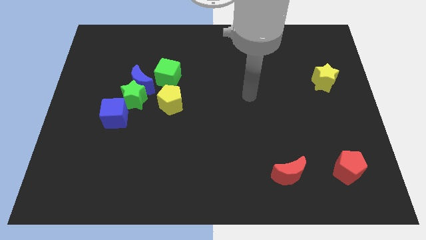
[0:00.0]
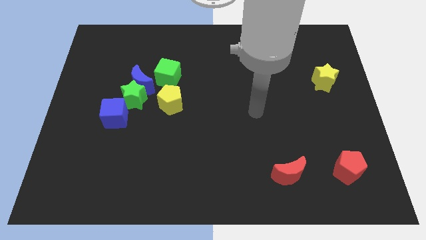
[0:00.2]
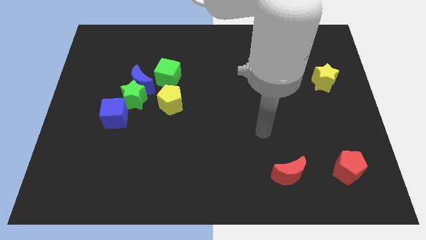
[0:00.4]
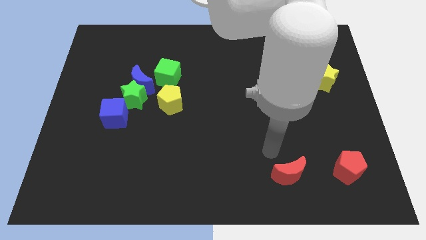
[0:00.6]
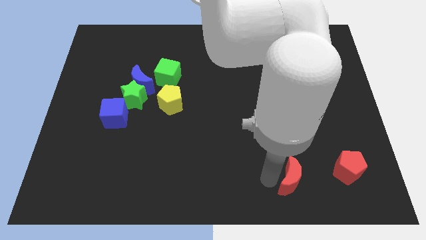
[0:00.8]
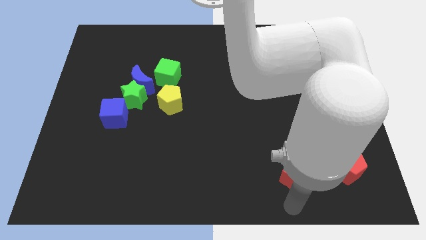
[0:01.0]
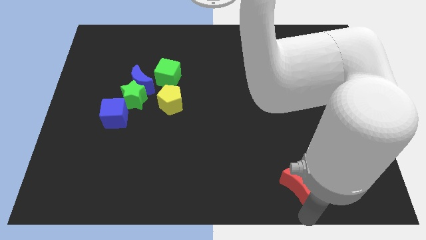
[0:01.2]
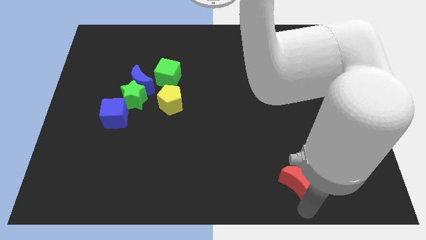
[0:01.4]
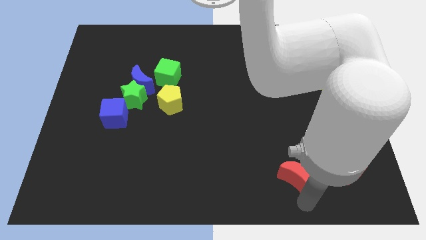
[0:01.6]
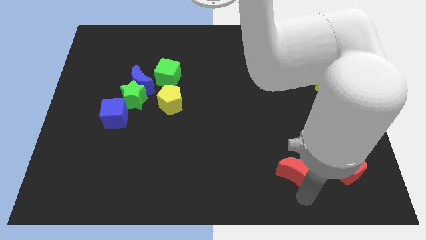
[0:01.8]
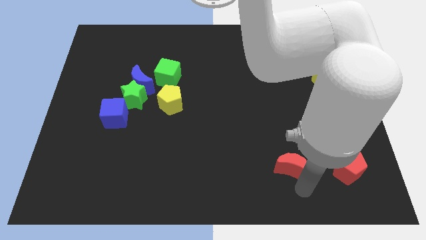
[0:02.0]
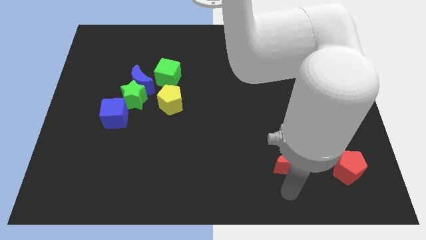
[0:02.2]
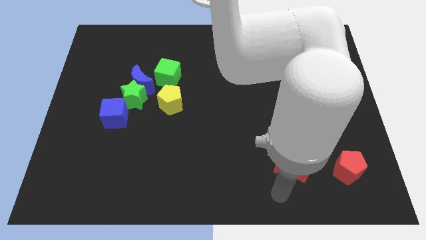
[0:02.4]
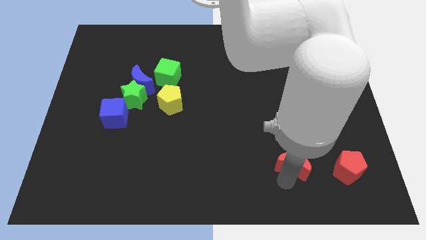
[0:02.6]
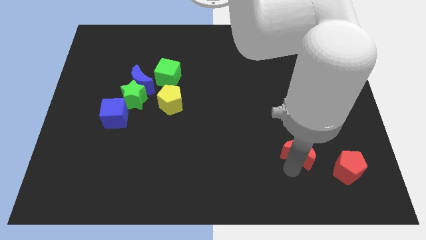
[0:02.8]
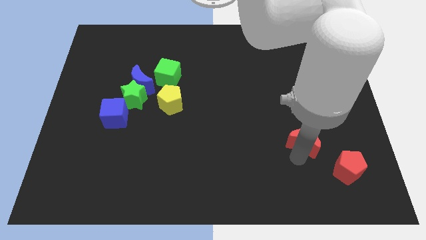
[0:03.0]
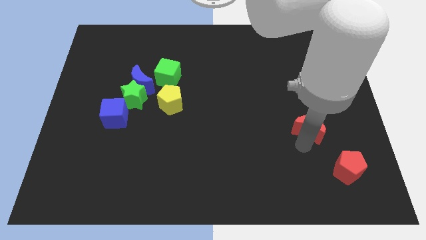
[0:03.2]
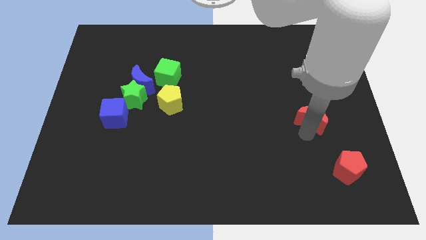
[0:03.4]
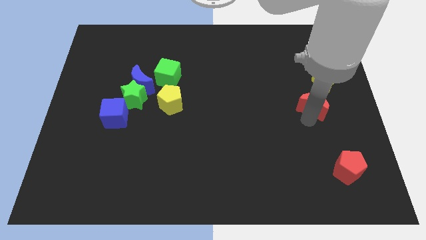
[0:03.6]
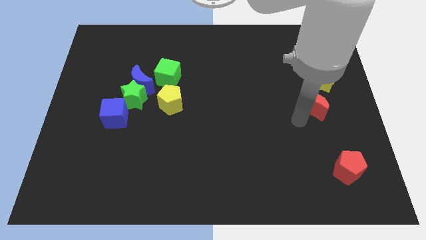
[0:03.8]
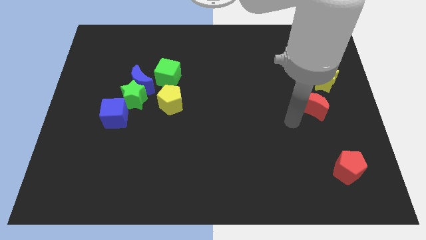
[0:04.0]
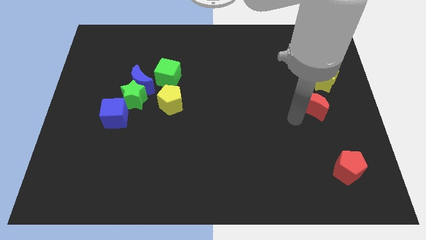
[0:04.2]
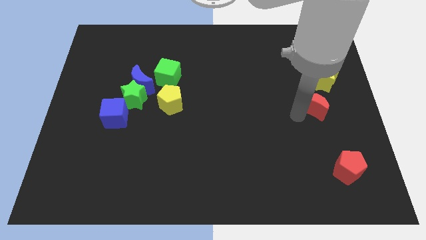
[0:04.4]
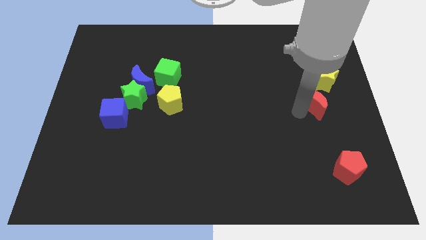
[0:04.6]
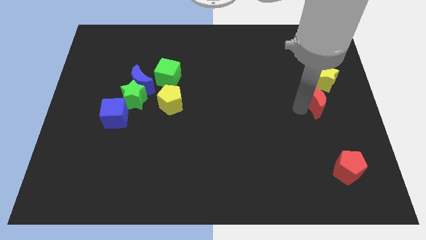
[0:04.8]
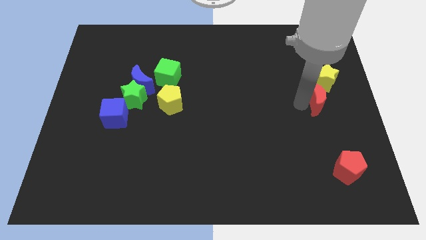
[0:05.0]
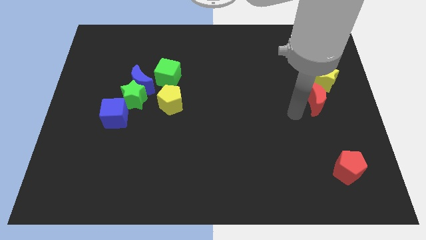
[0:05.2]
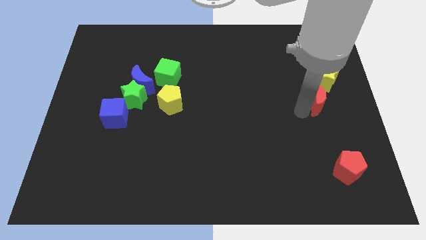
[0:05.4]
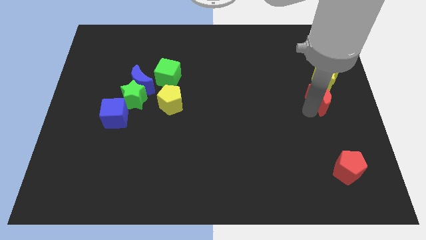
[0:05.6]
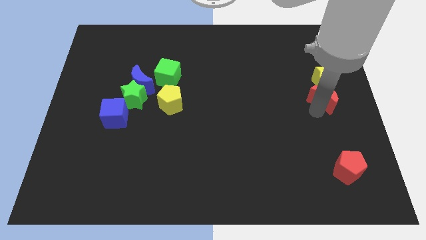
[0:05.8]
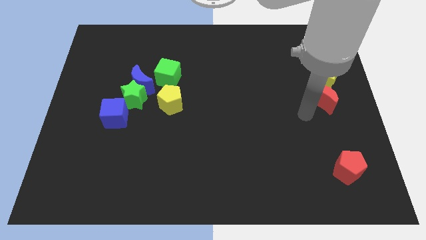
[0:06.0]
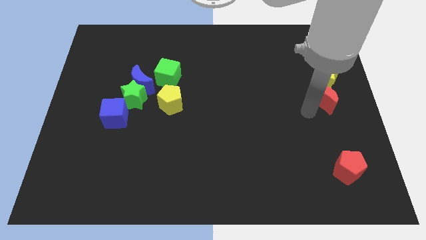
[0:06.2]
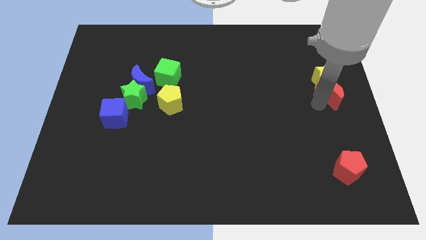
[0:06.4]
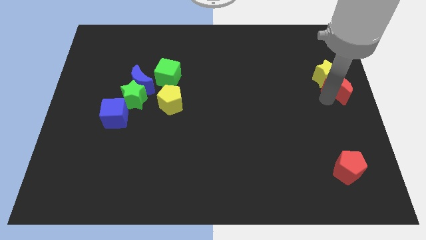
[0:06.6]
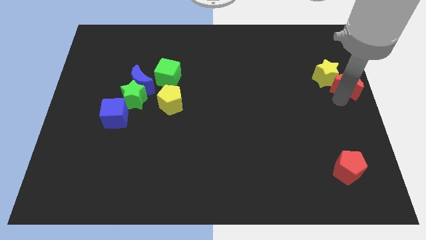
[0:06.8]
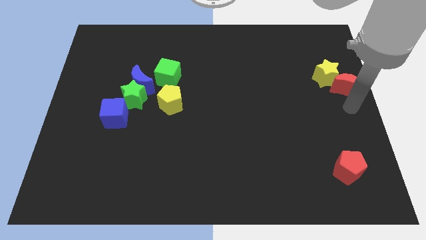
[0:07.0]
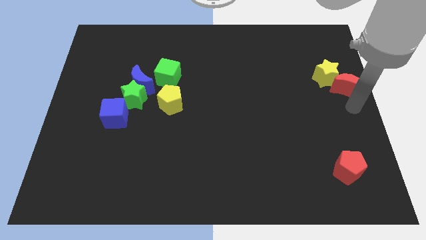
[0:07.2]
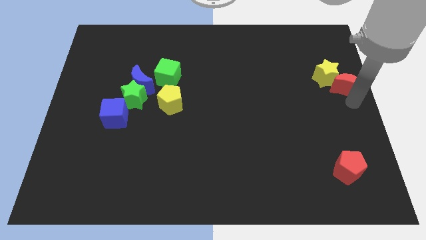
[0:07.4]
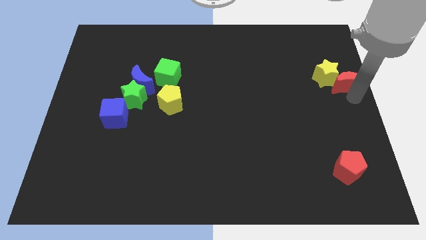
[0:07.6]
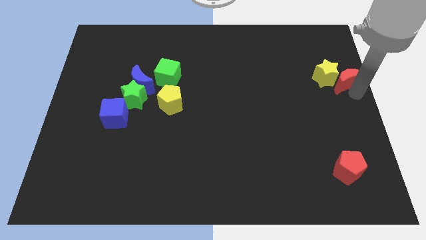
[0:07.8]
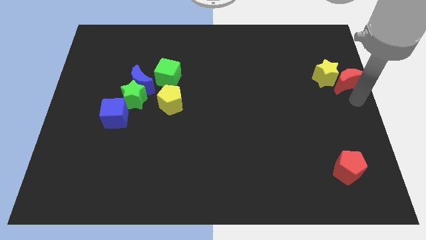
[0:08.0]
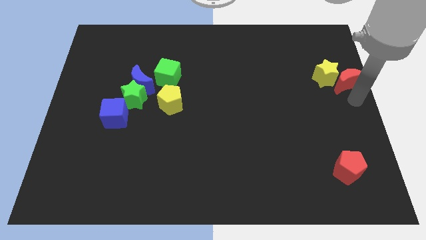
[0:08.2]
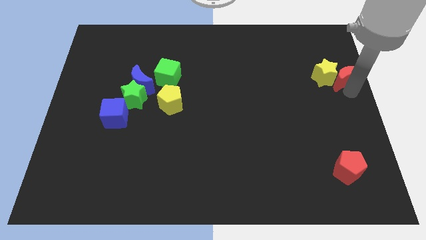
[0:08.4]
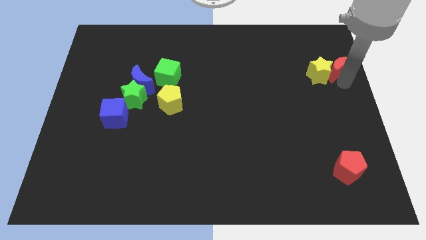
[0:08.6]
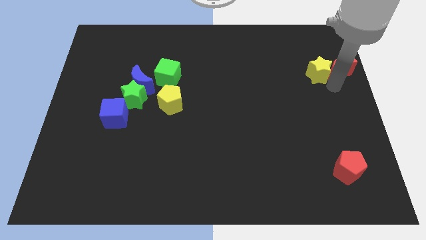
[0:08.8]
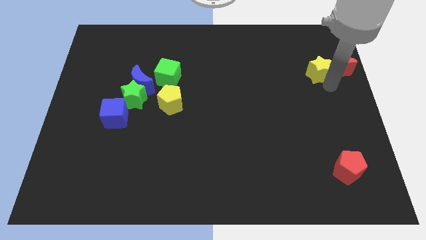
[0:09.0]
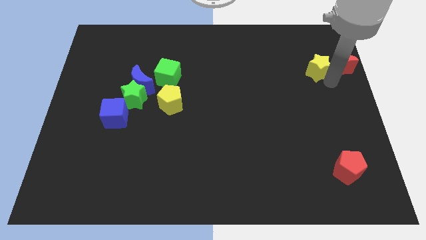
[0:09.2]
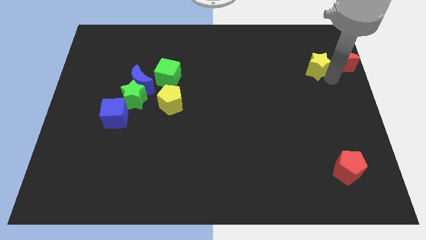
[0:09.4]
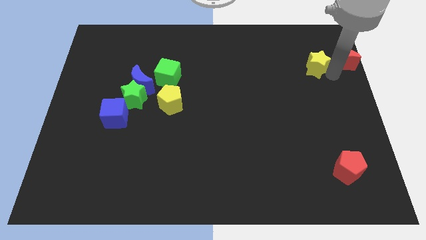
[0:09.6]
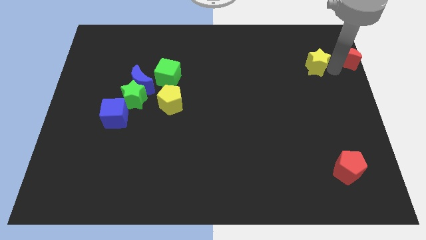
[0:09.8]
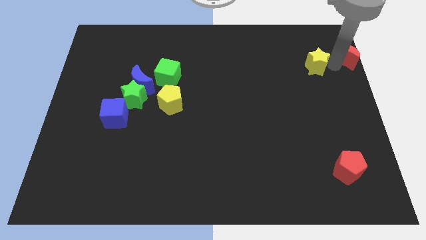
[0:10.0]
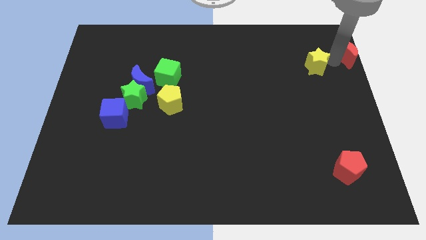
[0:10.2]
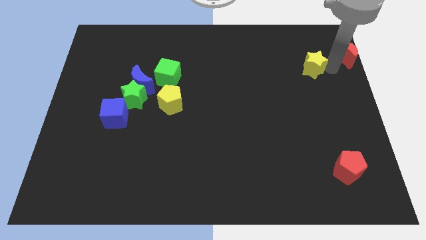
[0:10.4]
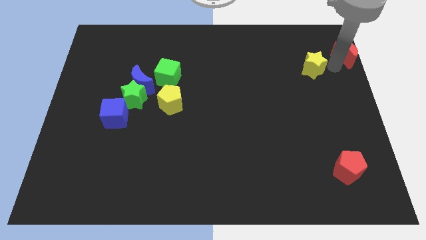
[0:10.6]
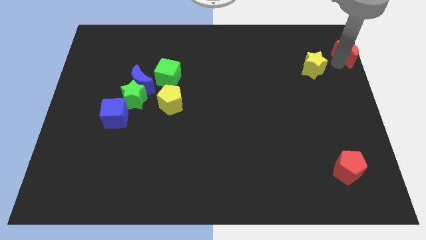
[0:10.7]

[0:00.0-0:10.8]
push the red moon to the upper right corner

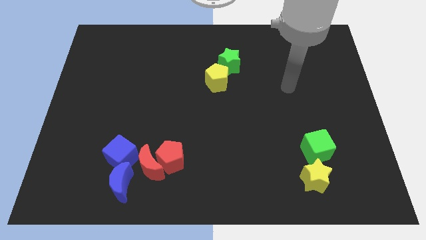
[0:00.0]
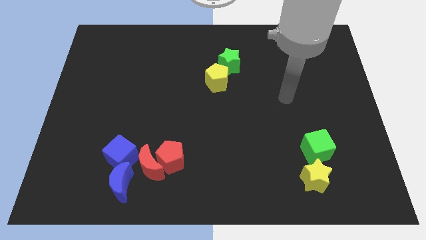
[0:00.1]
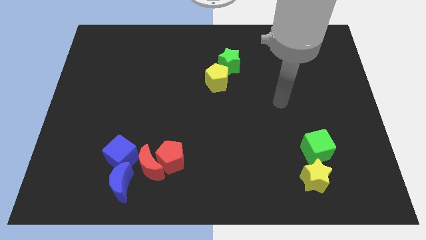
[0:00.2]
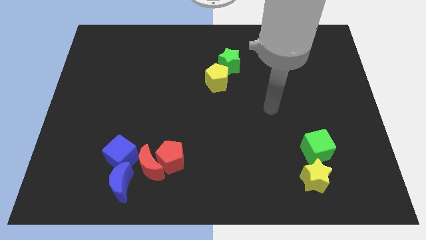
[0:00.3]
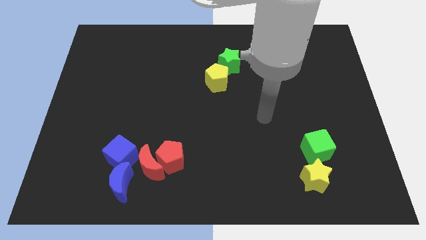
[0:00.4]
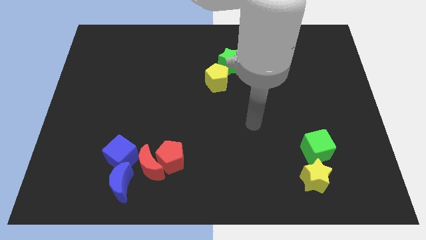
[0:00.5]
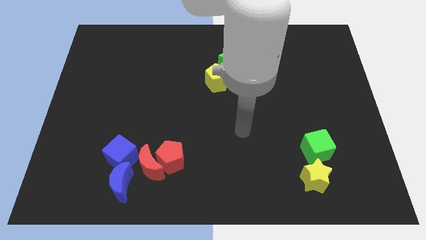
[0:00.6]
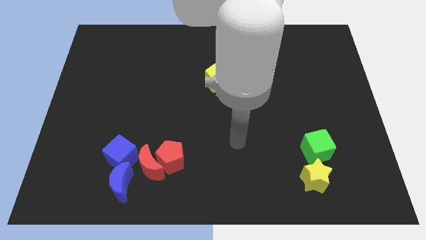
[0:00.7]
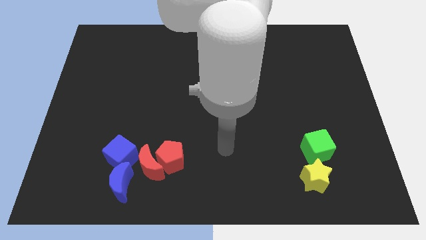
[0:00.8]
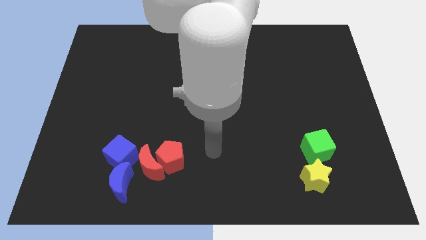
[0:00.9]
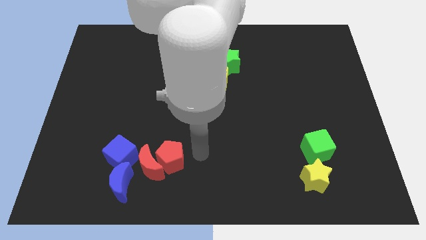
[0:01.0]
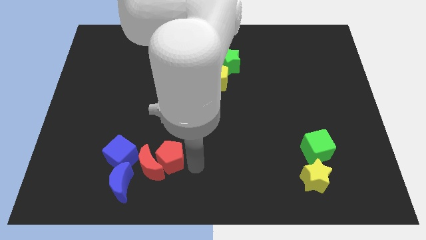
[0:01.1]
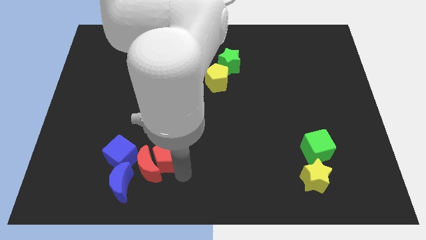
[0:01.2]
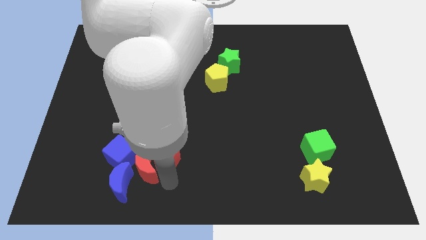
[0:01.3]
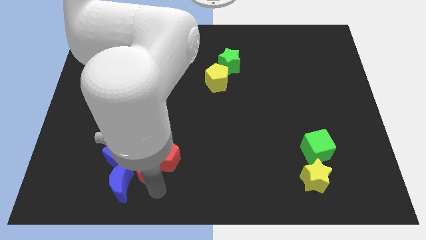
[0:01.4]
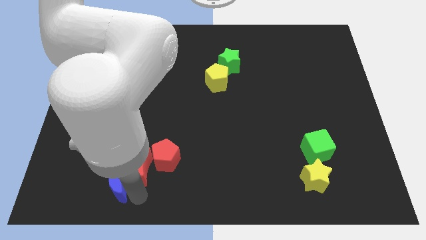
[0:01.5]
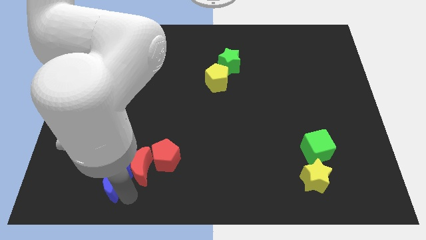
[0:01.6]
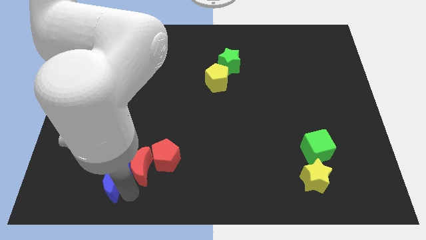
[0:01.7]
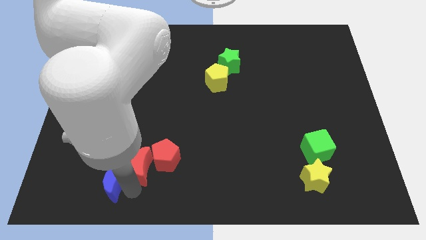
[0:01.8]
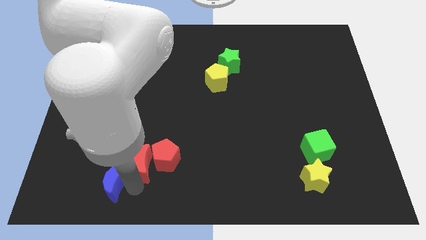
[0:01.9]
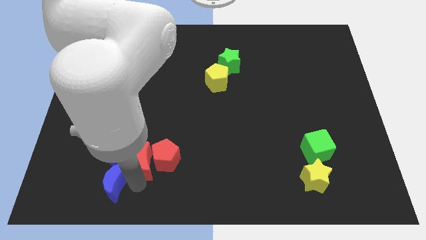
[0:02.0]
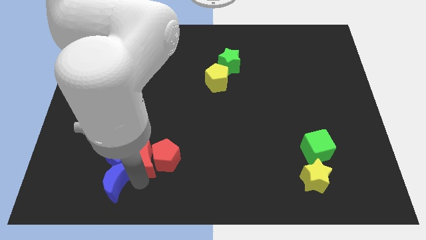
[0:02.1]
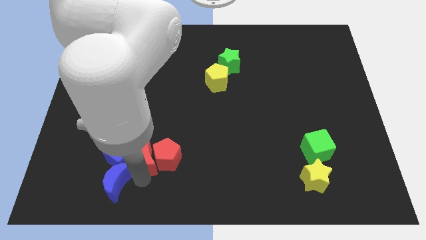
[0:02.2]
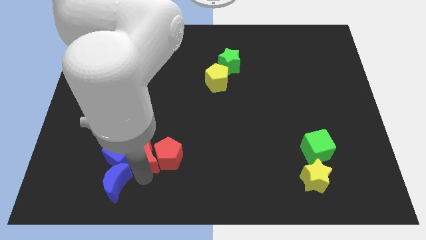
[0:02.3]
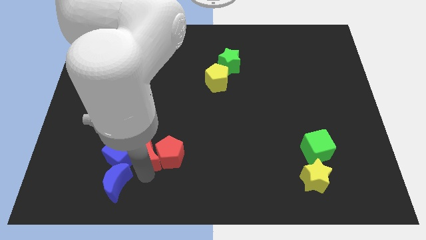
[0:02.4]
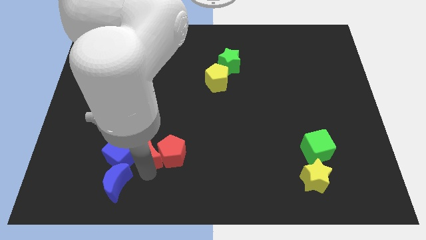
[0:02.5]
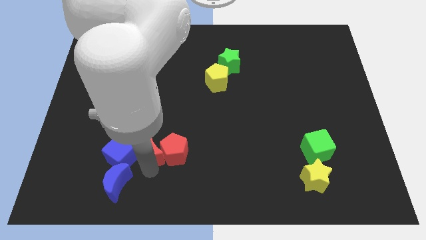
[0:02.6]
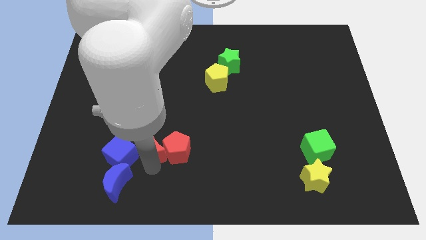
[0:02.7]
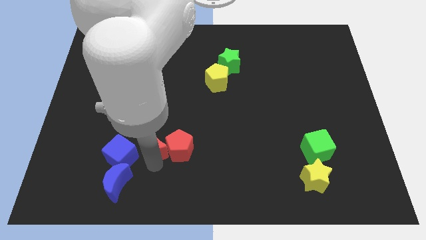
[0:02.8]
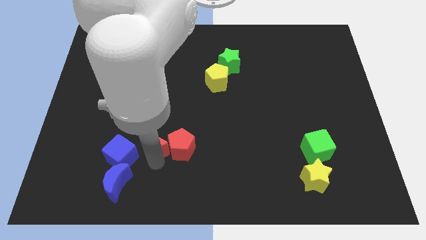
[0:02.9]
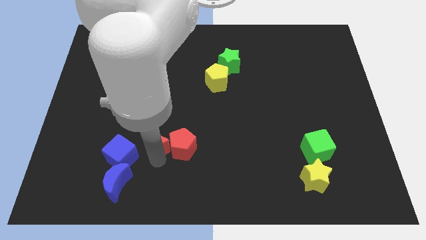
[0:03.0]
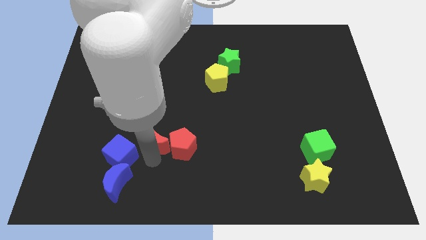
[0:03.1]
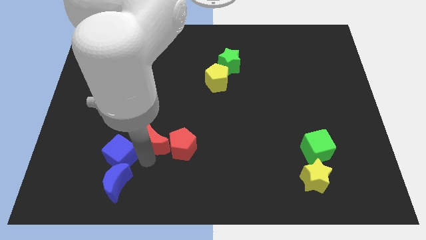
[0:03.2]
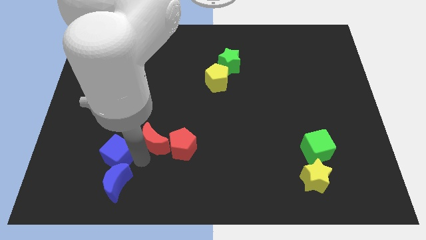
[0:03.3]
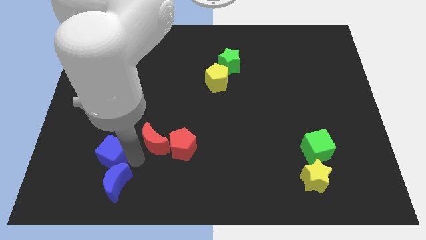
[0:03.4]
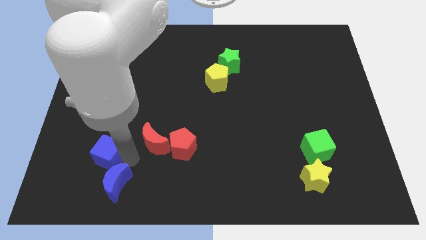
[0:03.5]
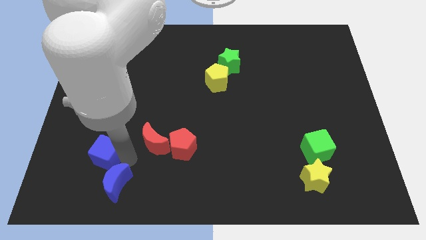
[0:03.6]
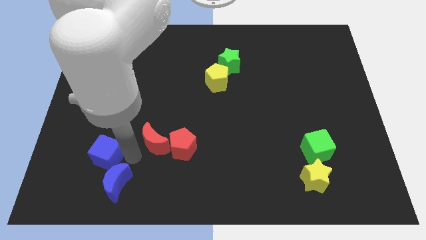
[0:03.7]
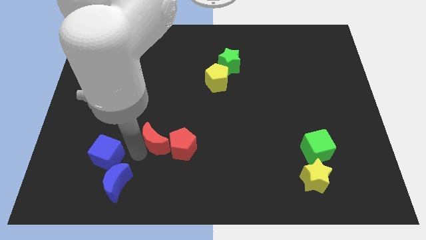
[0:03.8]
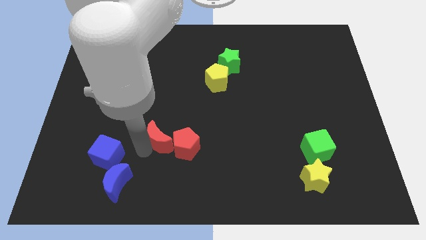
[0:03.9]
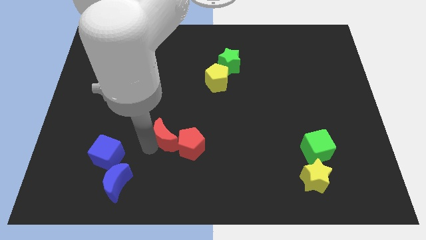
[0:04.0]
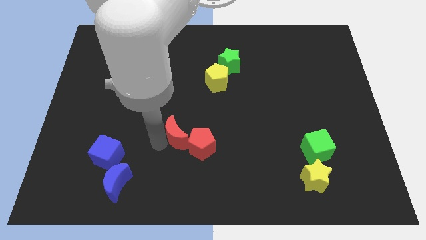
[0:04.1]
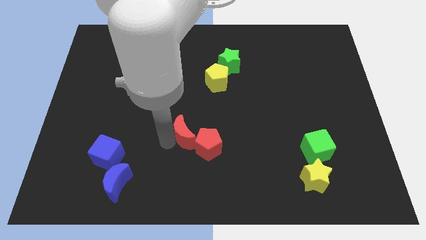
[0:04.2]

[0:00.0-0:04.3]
move the red moon to the middle
